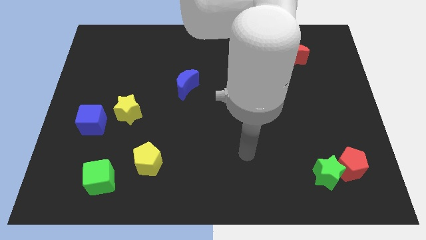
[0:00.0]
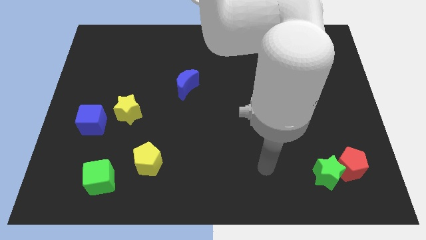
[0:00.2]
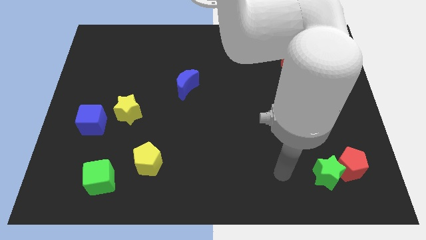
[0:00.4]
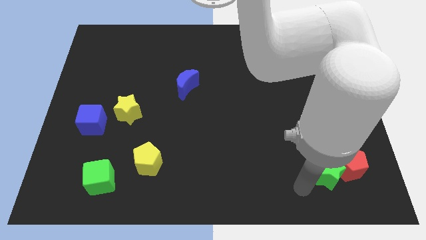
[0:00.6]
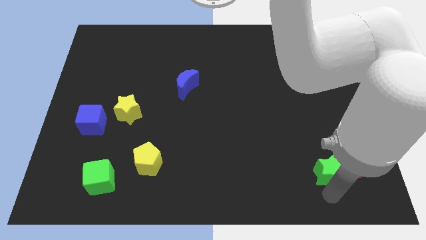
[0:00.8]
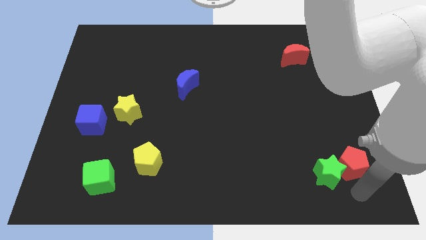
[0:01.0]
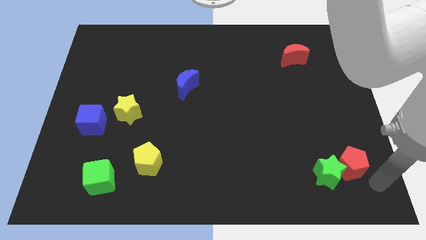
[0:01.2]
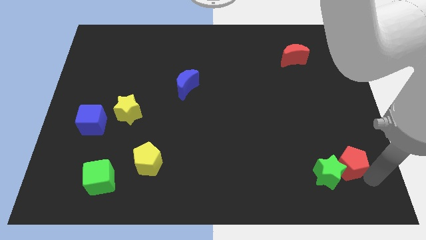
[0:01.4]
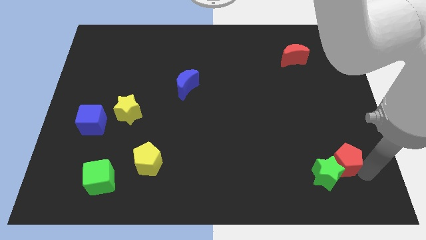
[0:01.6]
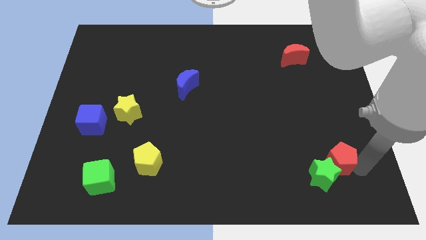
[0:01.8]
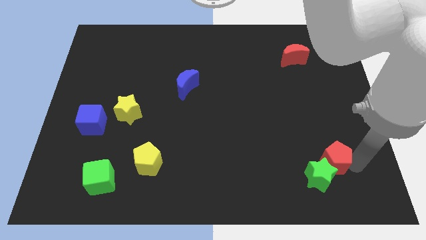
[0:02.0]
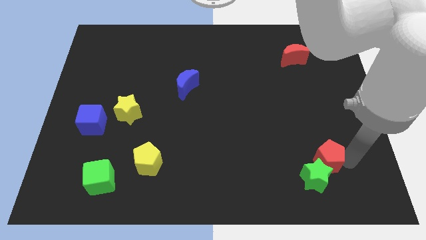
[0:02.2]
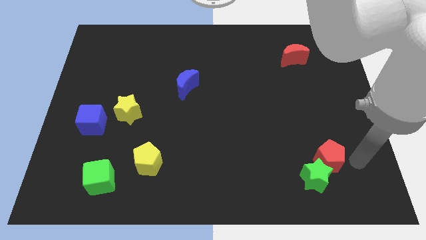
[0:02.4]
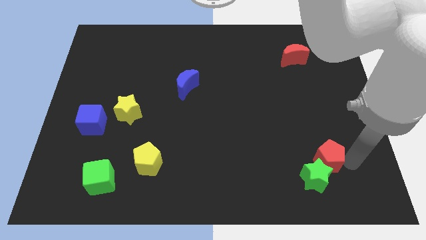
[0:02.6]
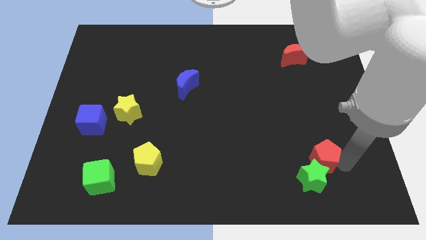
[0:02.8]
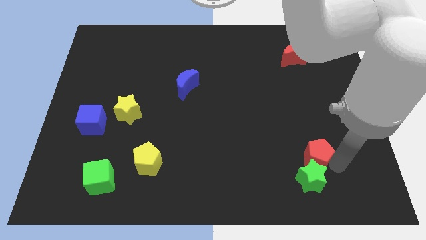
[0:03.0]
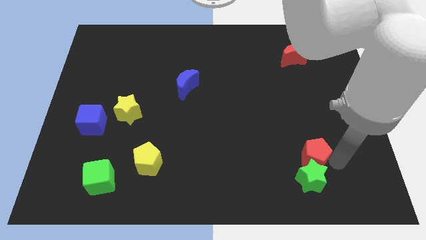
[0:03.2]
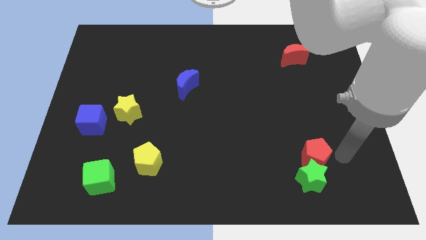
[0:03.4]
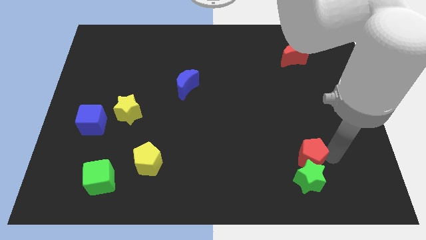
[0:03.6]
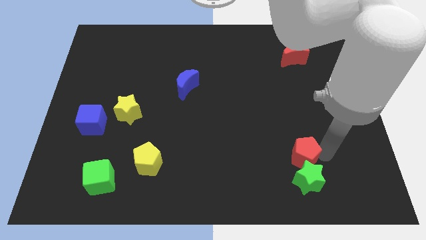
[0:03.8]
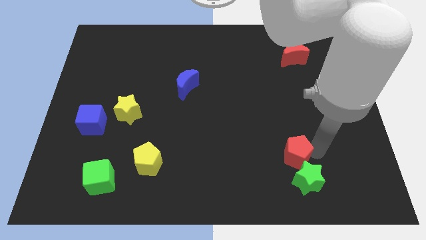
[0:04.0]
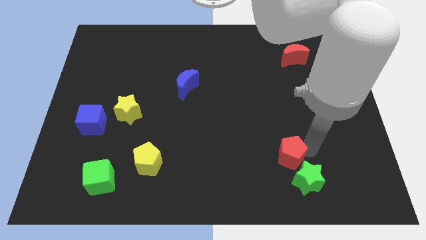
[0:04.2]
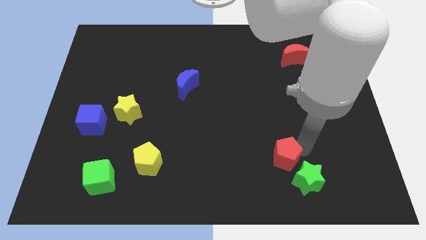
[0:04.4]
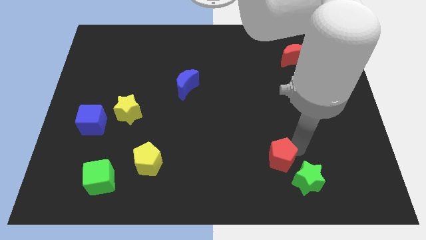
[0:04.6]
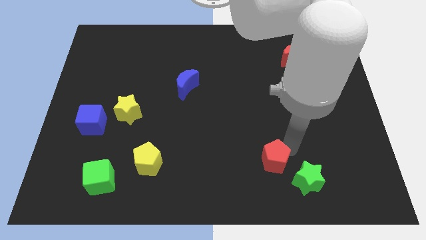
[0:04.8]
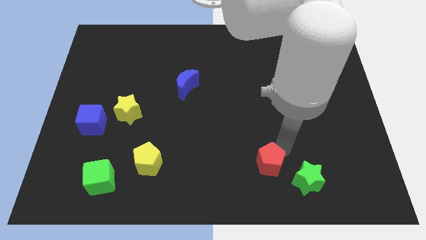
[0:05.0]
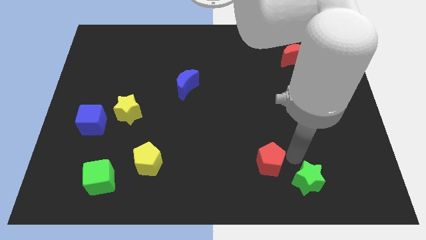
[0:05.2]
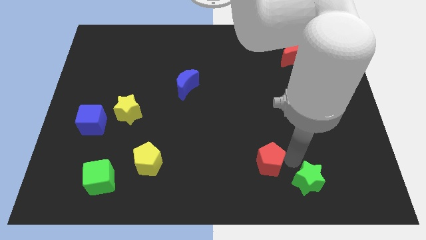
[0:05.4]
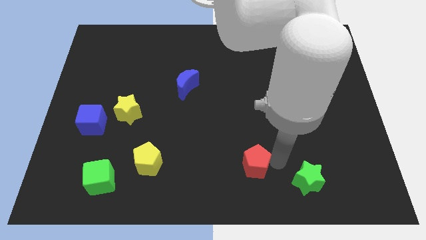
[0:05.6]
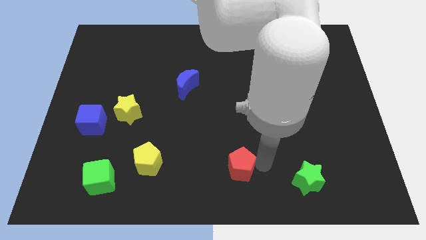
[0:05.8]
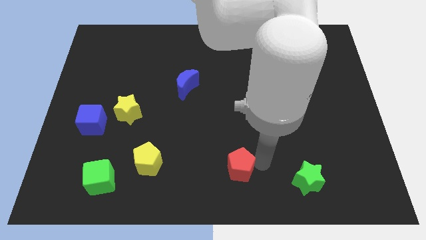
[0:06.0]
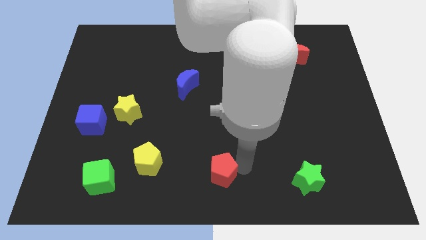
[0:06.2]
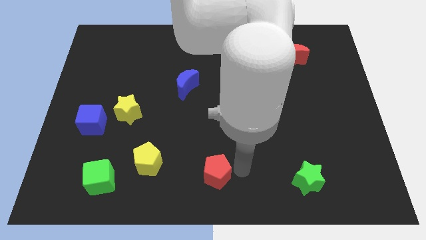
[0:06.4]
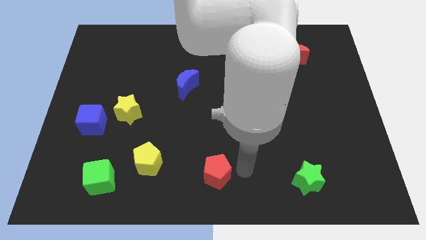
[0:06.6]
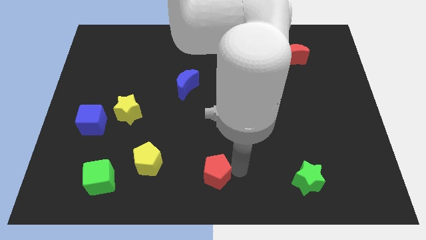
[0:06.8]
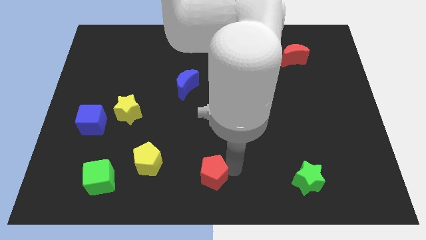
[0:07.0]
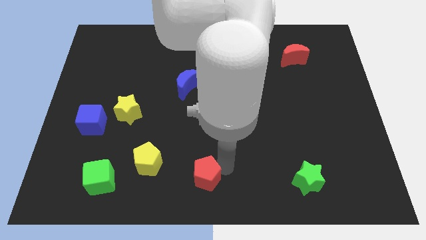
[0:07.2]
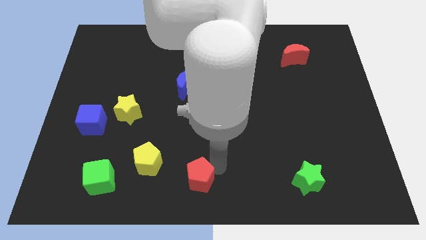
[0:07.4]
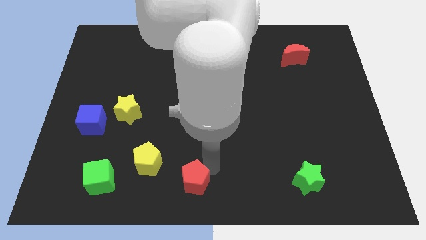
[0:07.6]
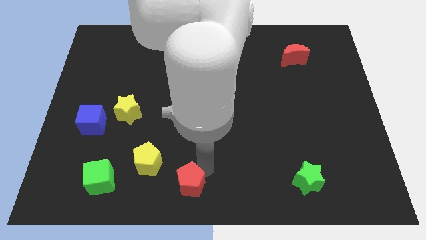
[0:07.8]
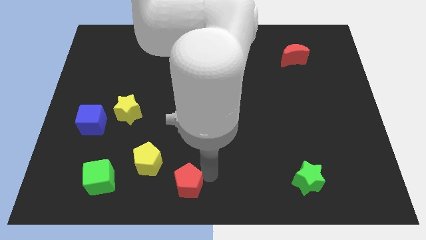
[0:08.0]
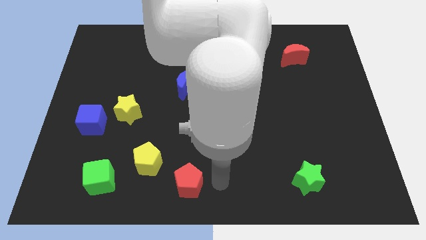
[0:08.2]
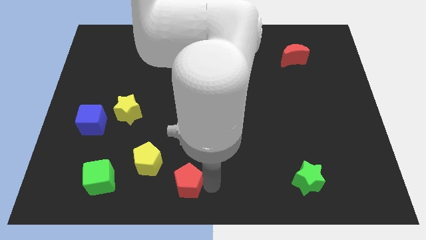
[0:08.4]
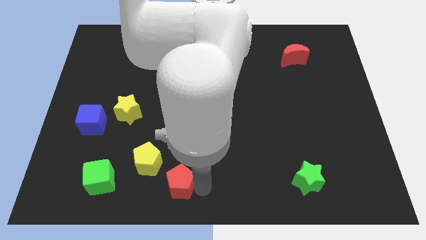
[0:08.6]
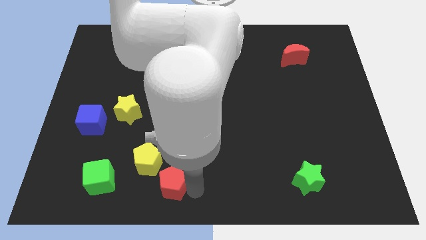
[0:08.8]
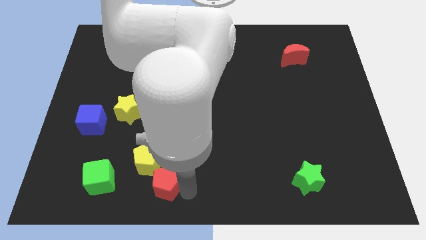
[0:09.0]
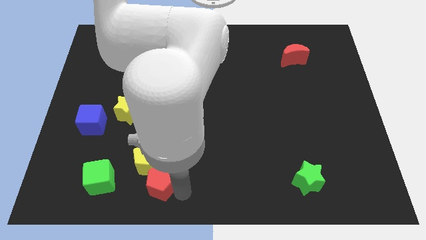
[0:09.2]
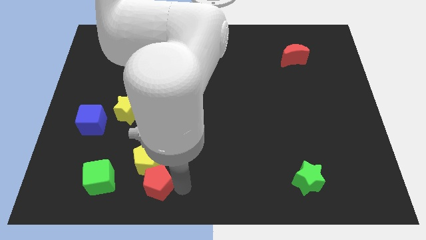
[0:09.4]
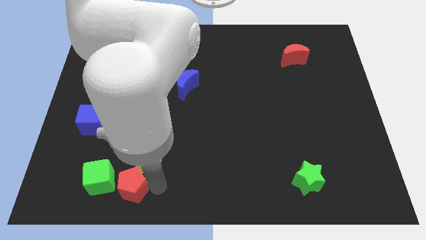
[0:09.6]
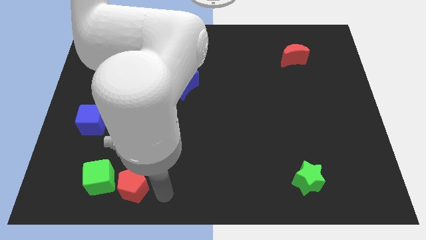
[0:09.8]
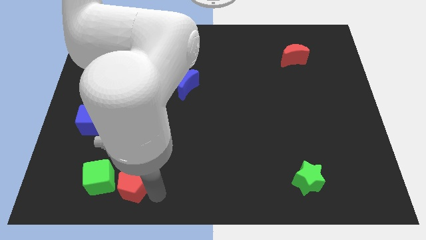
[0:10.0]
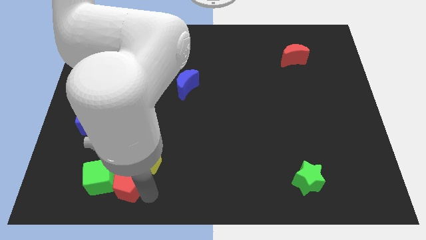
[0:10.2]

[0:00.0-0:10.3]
push the red pentagon to the green cube

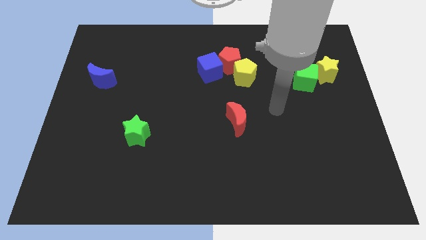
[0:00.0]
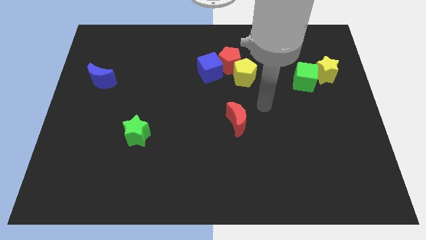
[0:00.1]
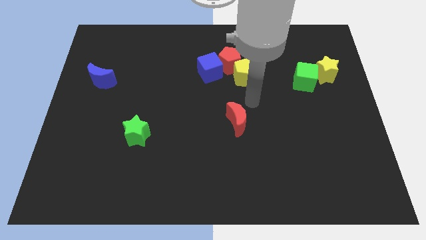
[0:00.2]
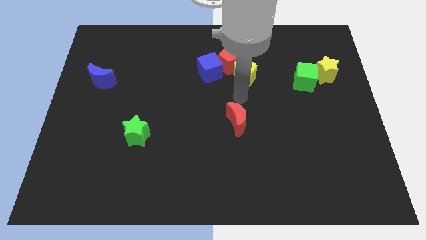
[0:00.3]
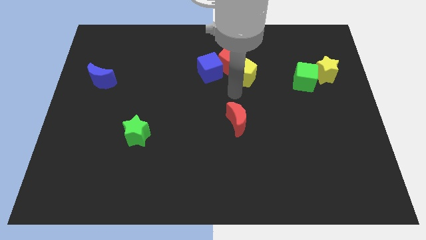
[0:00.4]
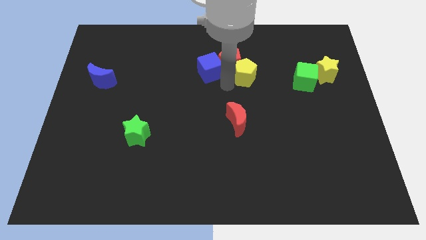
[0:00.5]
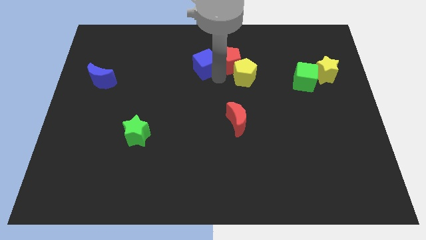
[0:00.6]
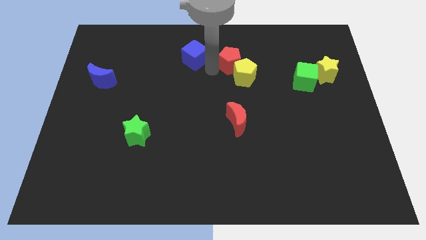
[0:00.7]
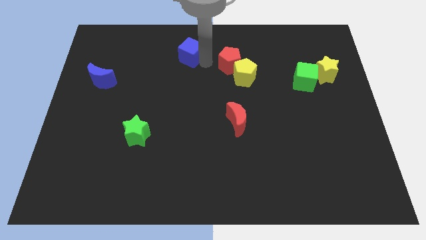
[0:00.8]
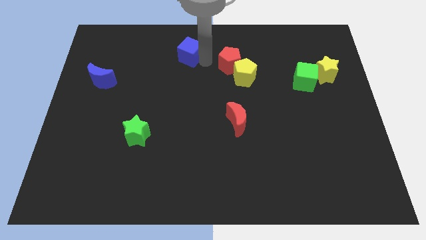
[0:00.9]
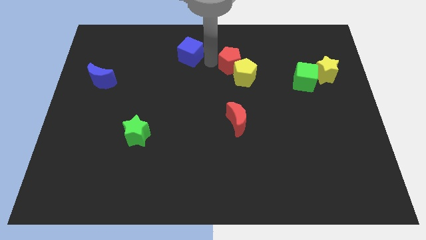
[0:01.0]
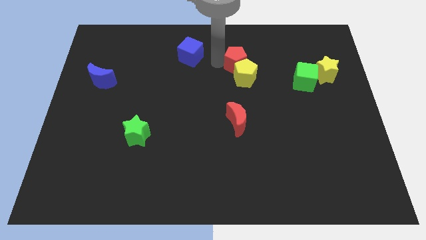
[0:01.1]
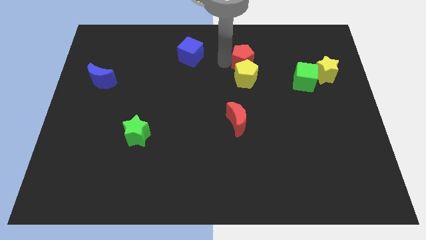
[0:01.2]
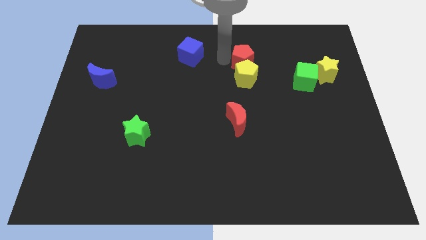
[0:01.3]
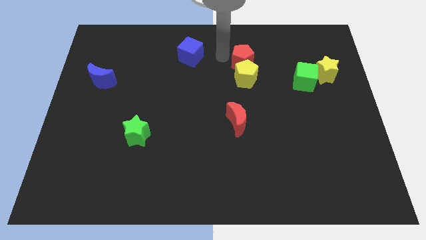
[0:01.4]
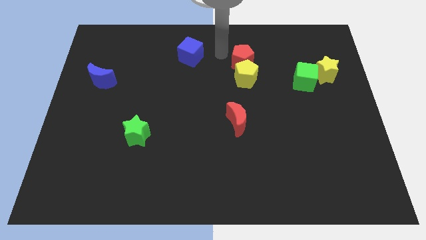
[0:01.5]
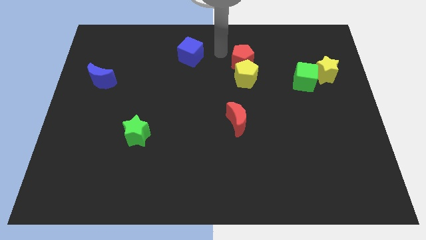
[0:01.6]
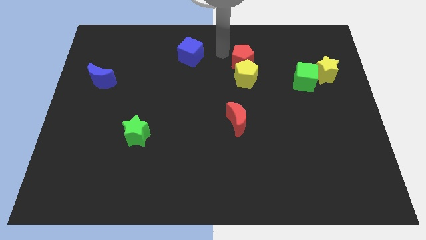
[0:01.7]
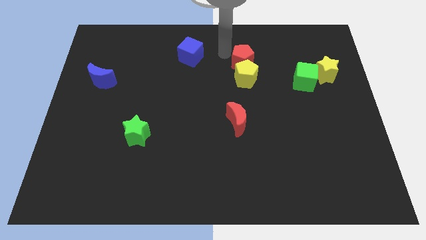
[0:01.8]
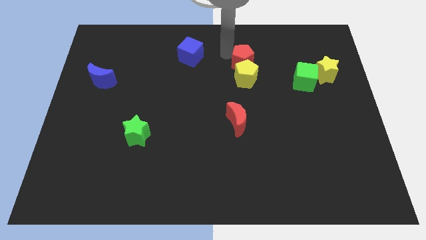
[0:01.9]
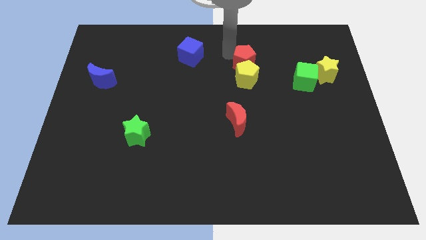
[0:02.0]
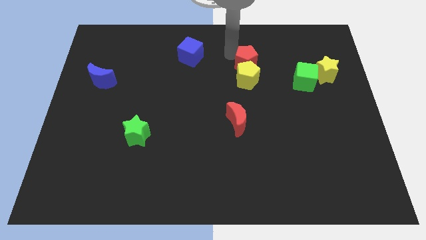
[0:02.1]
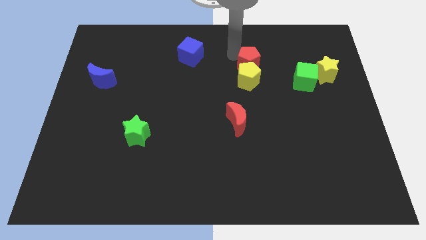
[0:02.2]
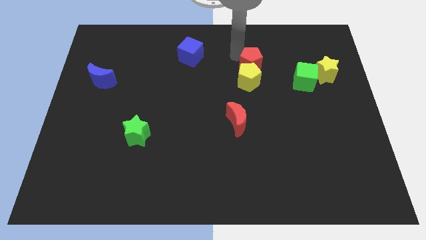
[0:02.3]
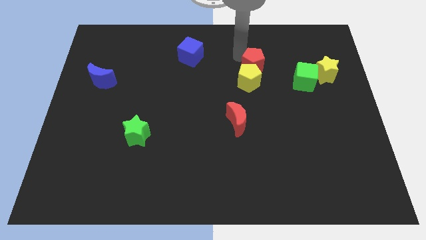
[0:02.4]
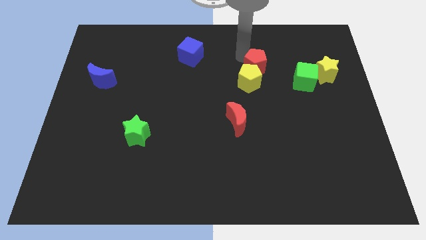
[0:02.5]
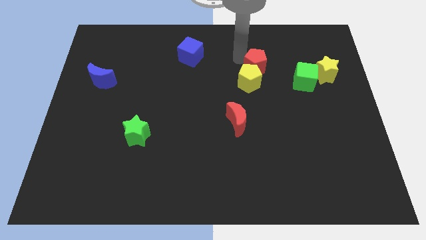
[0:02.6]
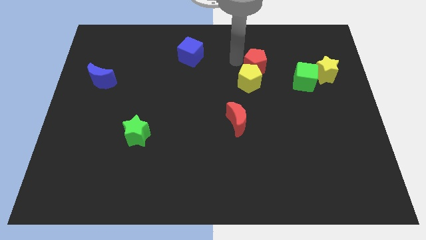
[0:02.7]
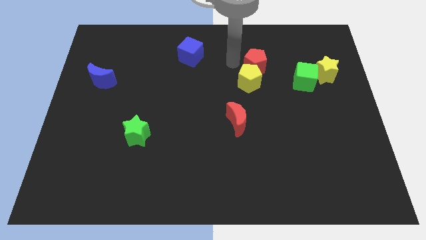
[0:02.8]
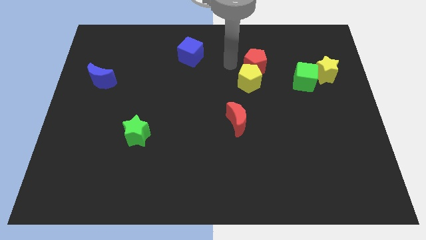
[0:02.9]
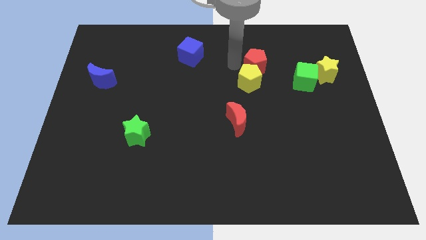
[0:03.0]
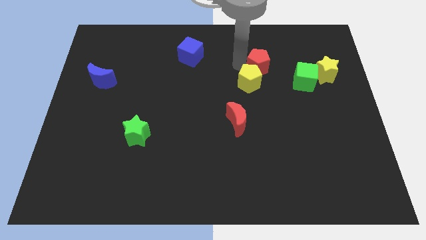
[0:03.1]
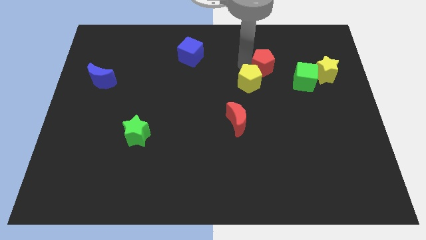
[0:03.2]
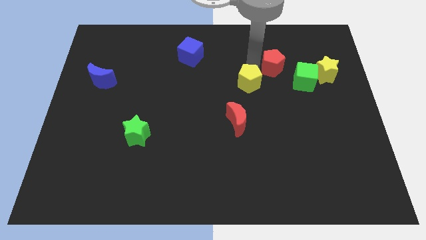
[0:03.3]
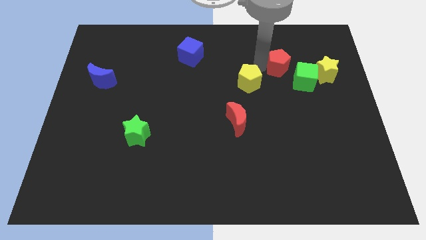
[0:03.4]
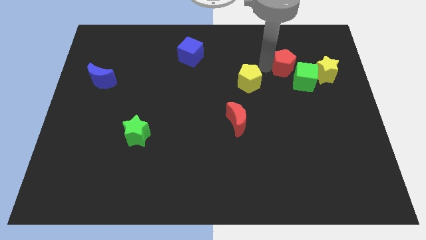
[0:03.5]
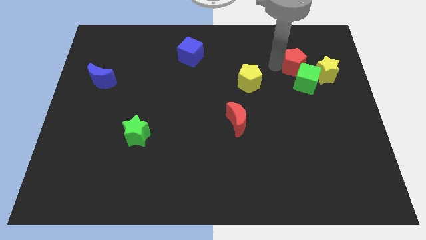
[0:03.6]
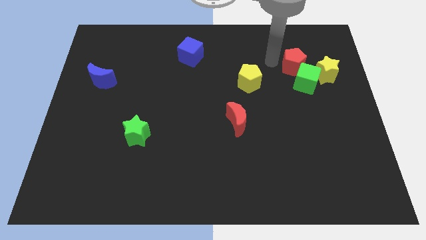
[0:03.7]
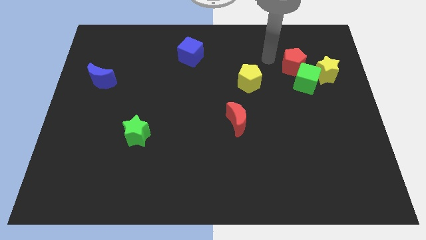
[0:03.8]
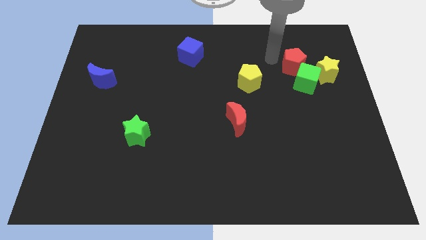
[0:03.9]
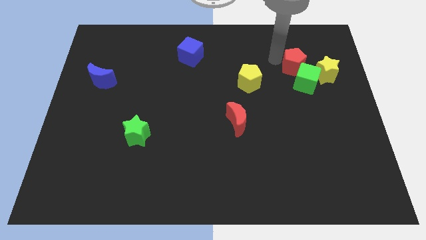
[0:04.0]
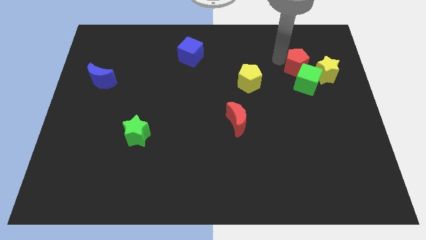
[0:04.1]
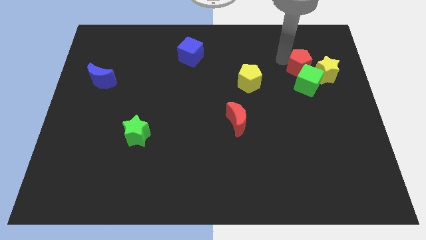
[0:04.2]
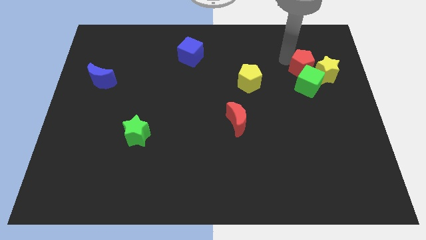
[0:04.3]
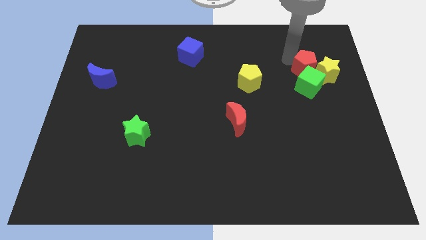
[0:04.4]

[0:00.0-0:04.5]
move the red pentagon next to the yellow star
